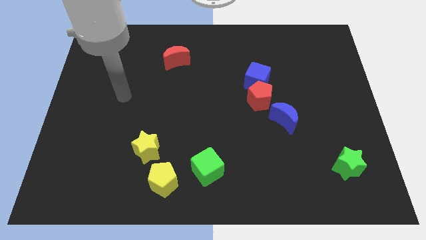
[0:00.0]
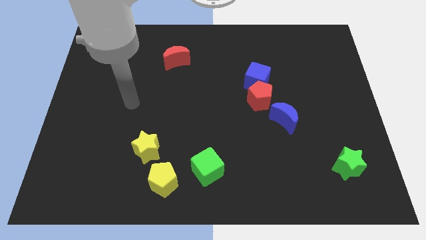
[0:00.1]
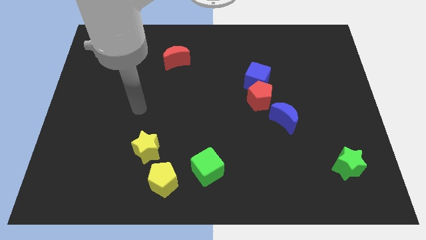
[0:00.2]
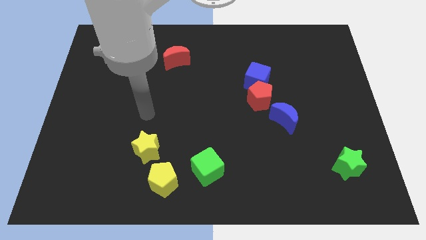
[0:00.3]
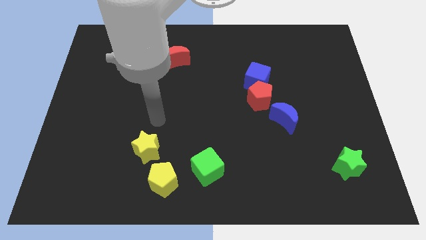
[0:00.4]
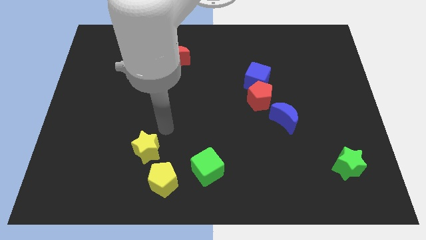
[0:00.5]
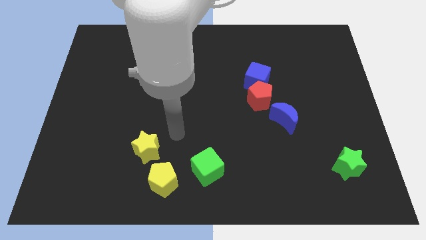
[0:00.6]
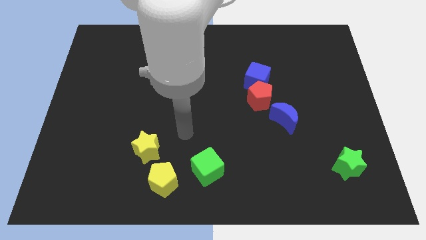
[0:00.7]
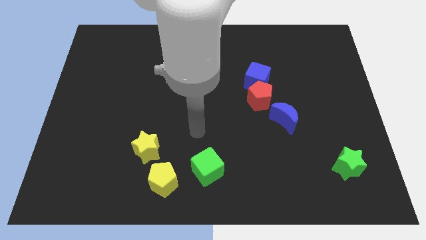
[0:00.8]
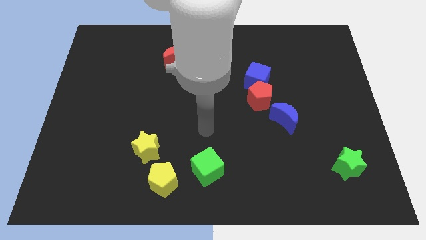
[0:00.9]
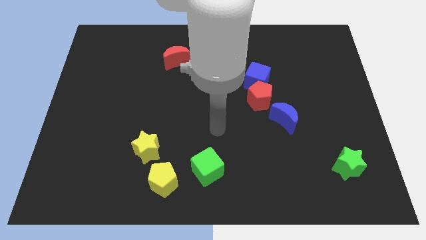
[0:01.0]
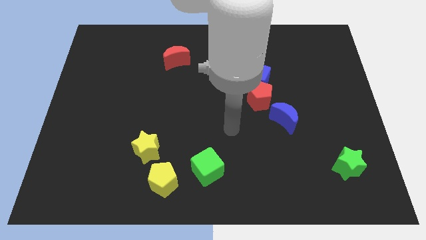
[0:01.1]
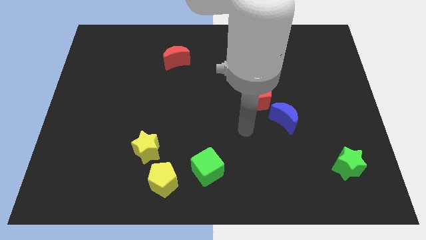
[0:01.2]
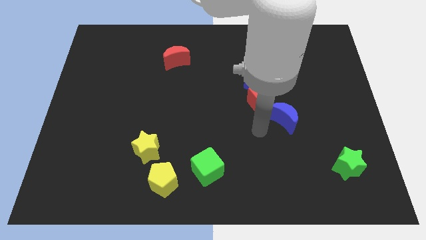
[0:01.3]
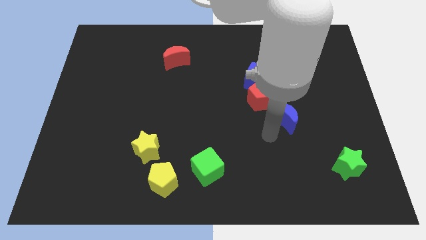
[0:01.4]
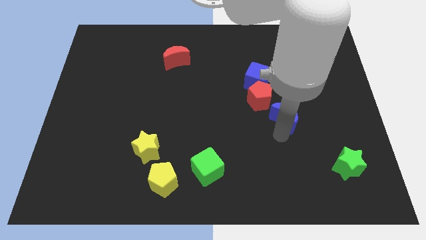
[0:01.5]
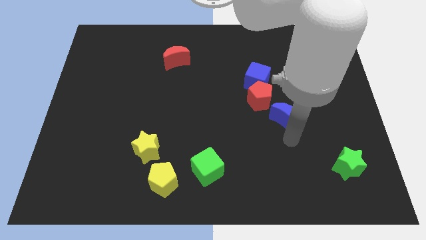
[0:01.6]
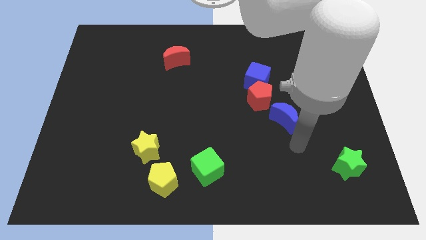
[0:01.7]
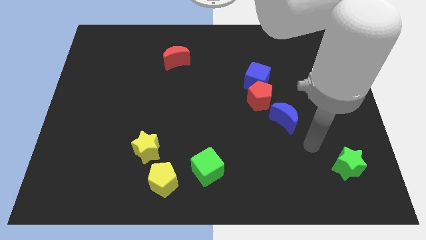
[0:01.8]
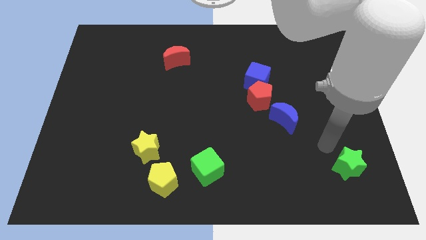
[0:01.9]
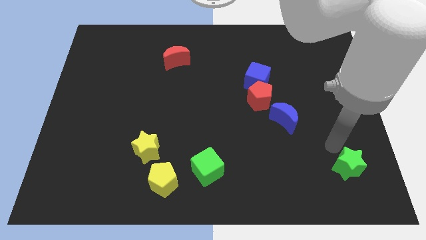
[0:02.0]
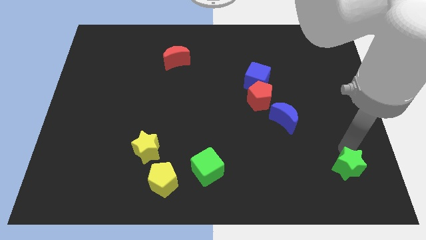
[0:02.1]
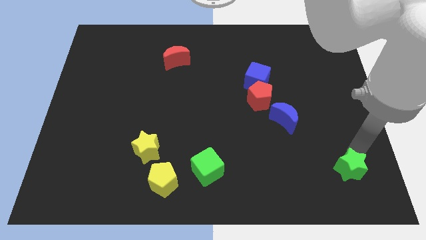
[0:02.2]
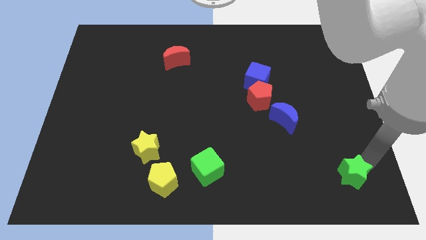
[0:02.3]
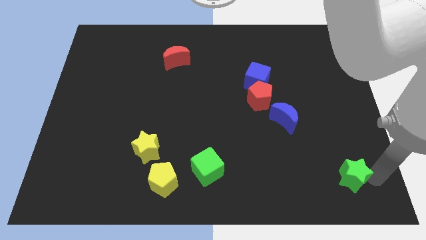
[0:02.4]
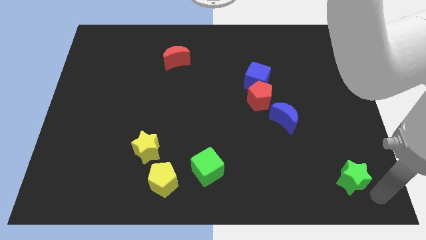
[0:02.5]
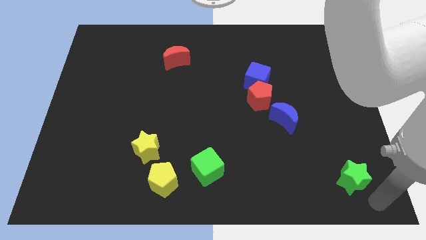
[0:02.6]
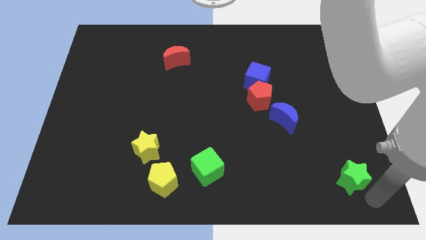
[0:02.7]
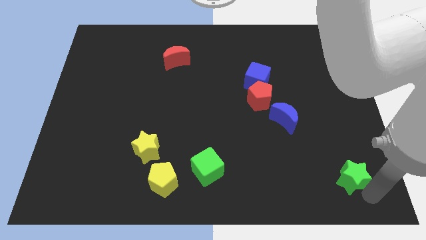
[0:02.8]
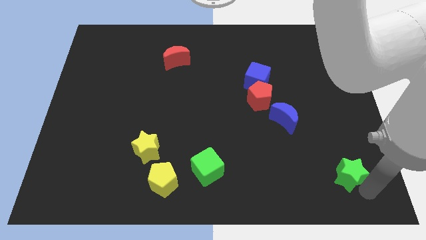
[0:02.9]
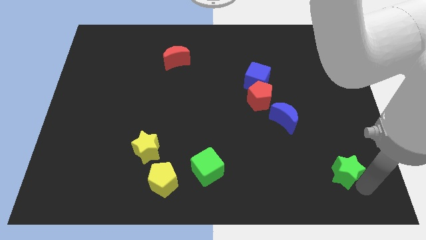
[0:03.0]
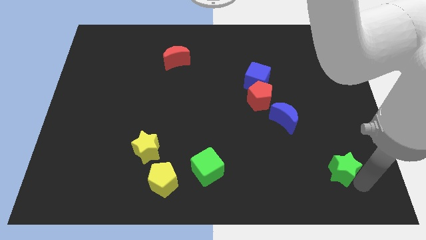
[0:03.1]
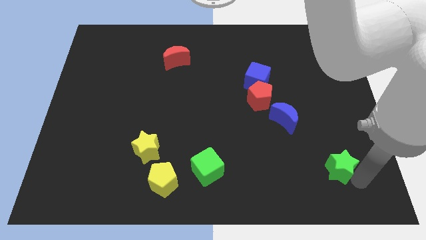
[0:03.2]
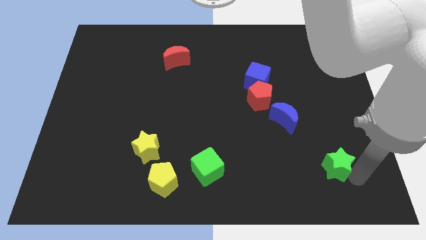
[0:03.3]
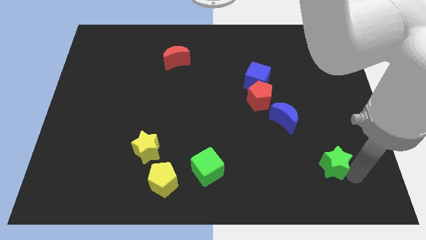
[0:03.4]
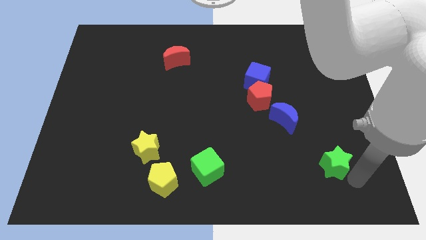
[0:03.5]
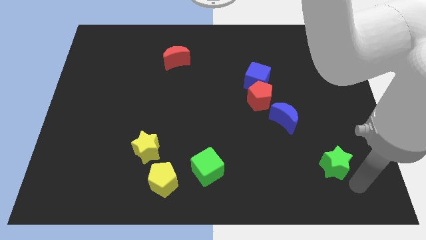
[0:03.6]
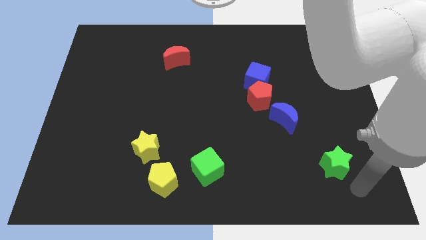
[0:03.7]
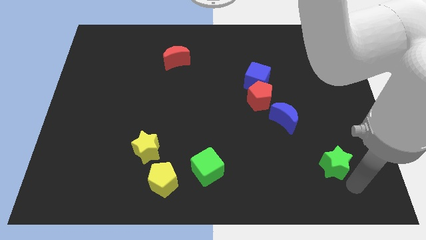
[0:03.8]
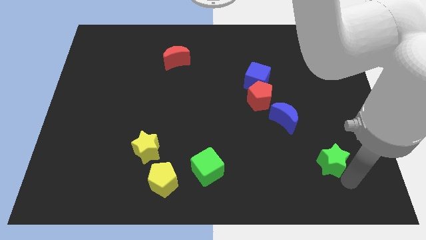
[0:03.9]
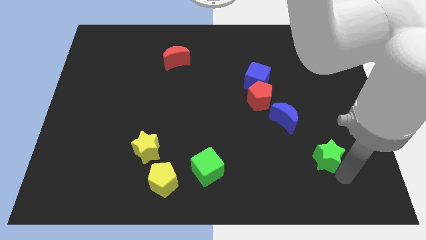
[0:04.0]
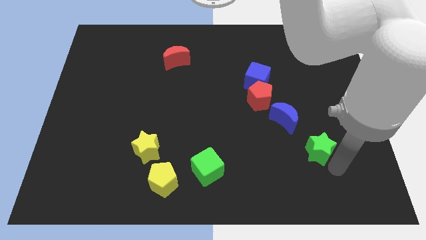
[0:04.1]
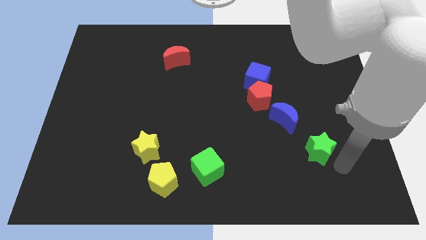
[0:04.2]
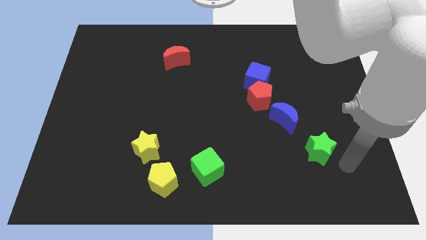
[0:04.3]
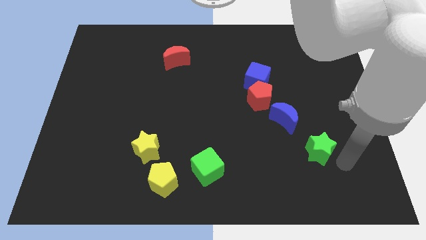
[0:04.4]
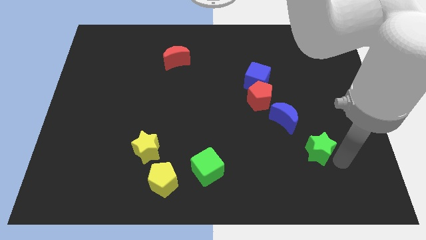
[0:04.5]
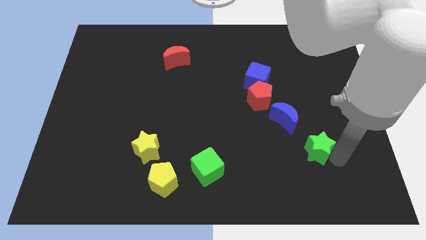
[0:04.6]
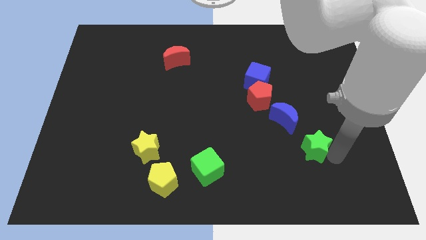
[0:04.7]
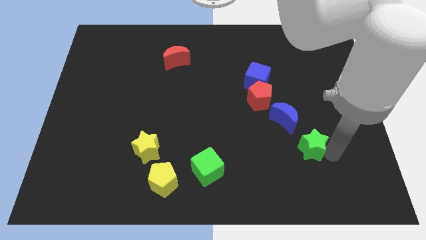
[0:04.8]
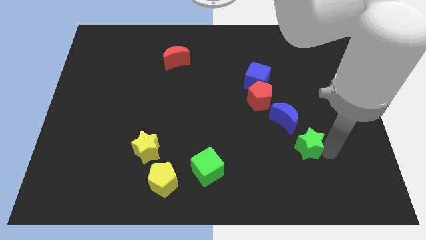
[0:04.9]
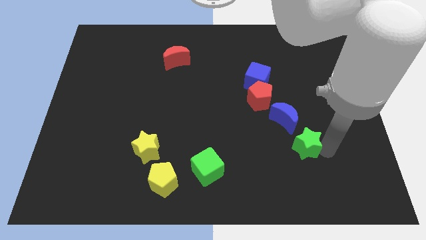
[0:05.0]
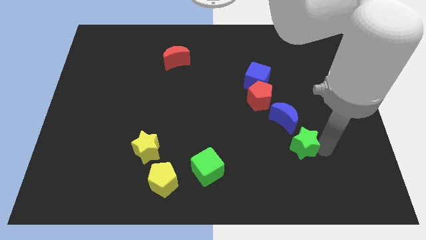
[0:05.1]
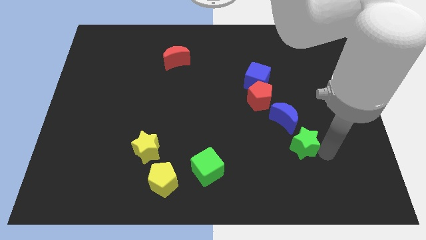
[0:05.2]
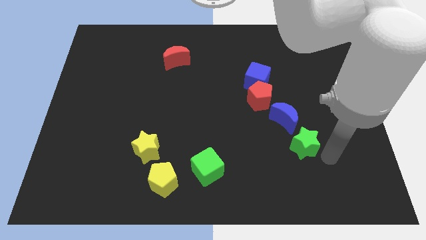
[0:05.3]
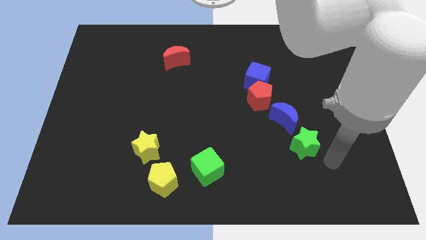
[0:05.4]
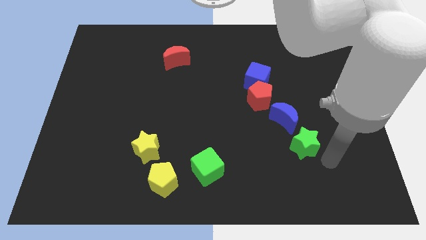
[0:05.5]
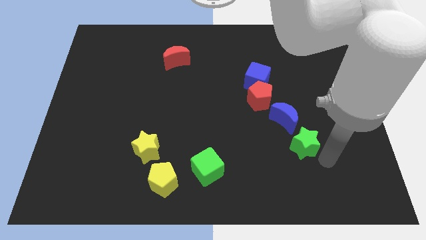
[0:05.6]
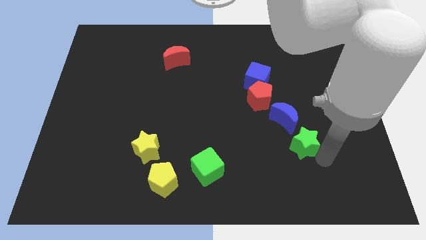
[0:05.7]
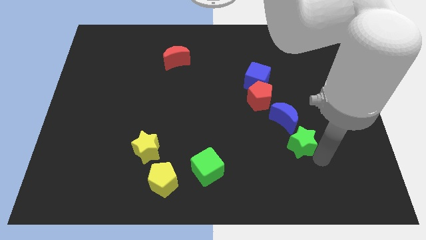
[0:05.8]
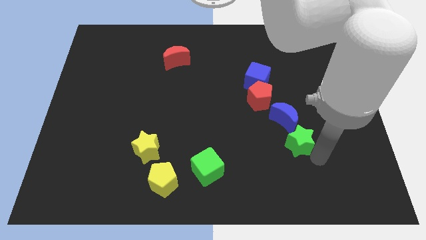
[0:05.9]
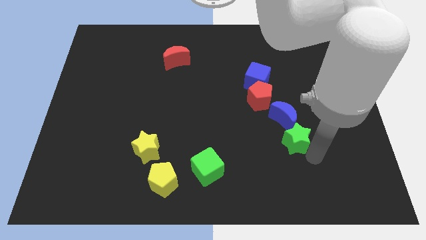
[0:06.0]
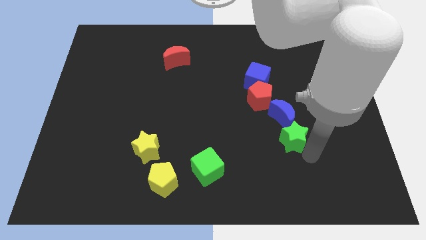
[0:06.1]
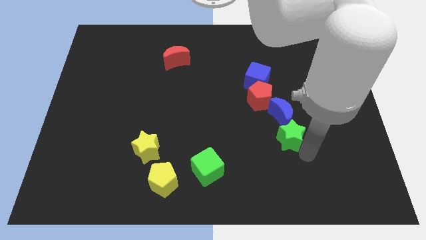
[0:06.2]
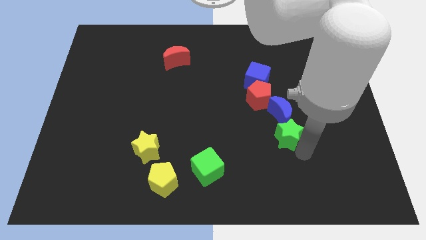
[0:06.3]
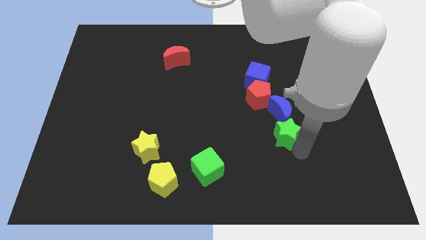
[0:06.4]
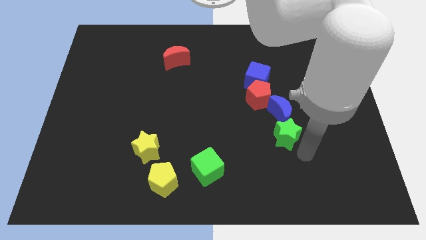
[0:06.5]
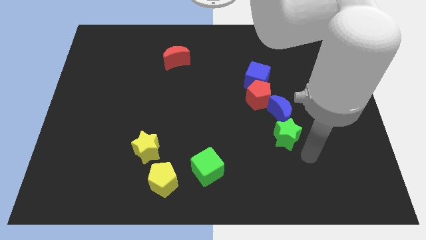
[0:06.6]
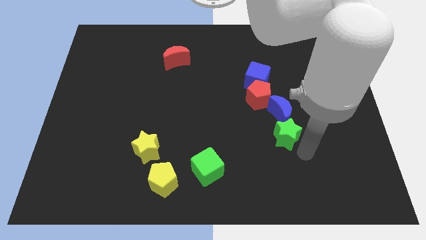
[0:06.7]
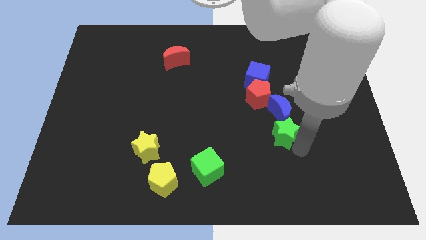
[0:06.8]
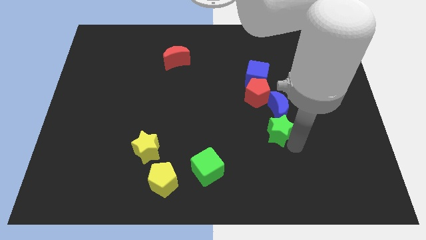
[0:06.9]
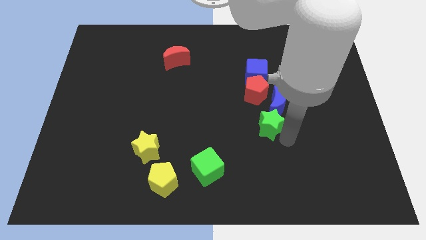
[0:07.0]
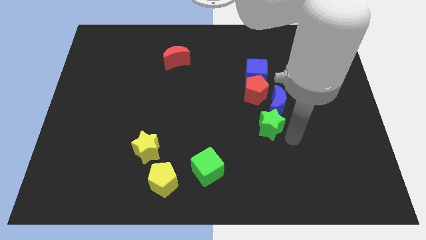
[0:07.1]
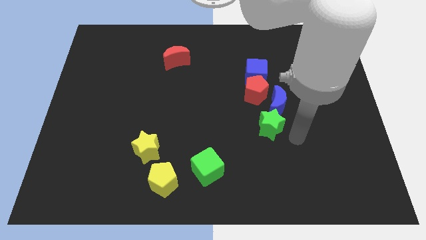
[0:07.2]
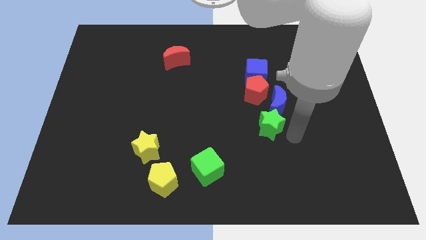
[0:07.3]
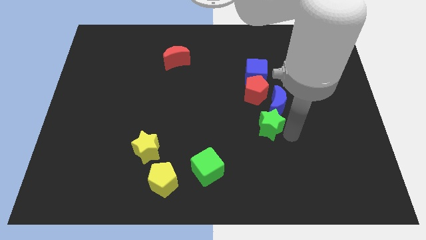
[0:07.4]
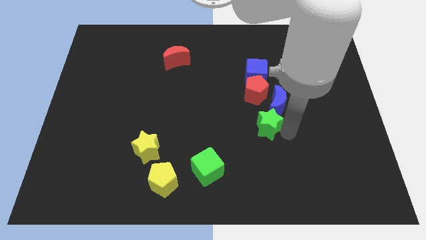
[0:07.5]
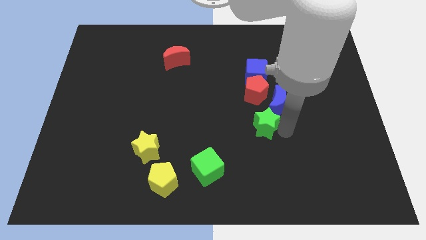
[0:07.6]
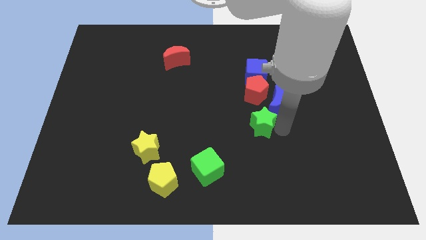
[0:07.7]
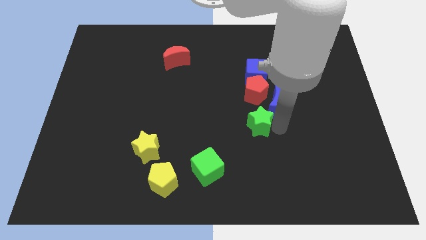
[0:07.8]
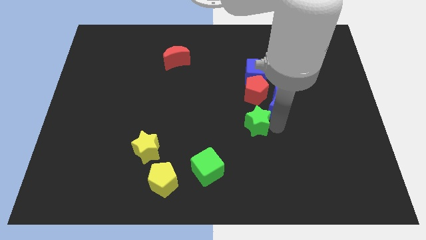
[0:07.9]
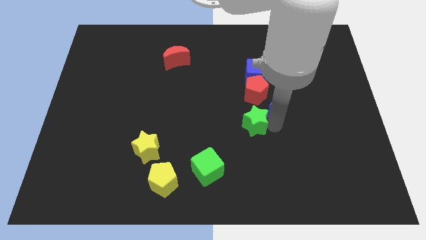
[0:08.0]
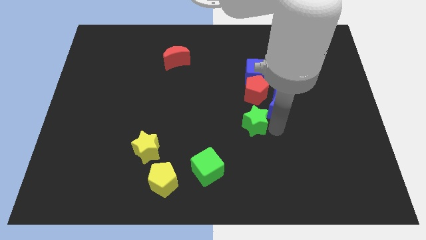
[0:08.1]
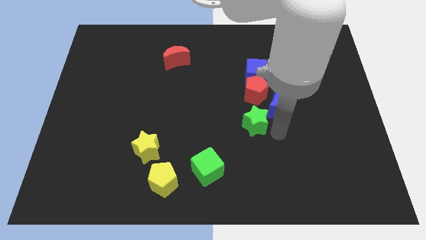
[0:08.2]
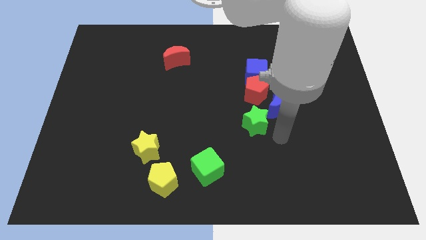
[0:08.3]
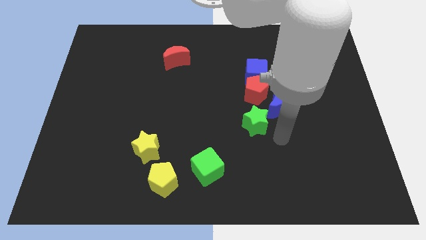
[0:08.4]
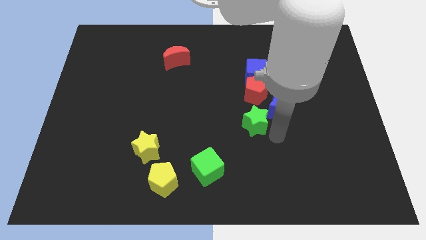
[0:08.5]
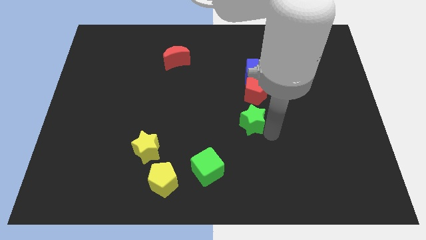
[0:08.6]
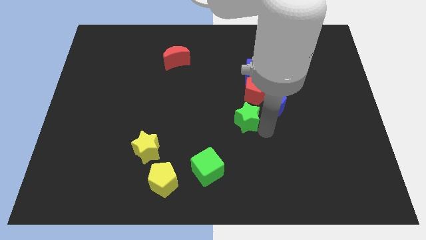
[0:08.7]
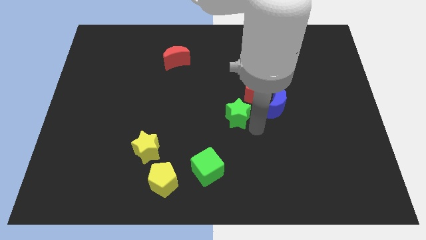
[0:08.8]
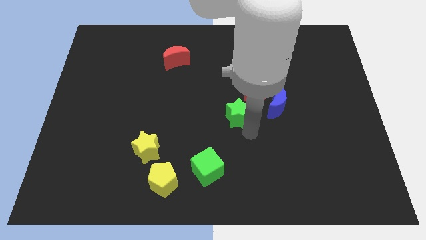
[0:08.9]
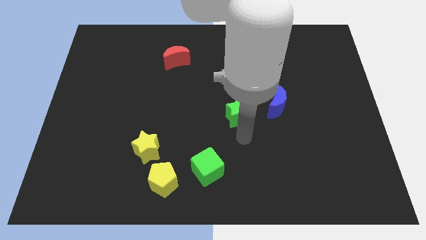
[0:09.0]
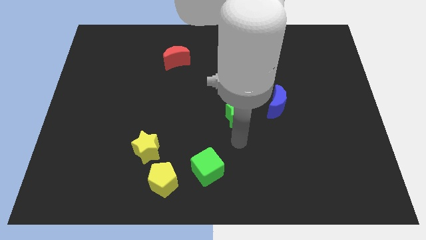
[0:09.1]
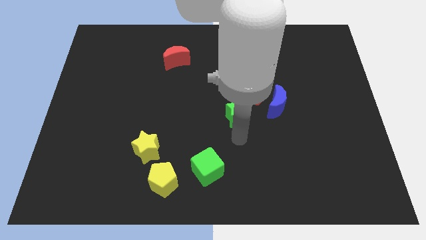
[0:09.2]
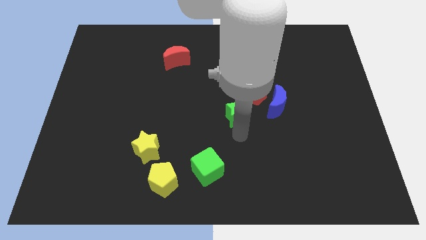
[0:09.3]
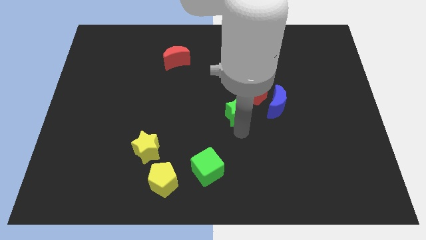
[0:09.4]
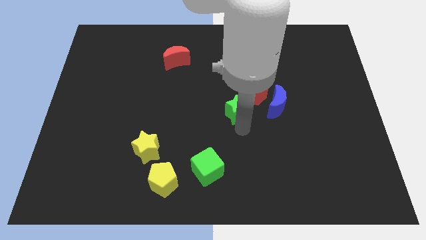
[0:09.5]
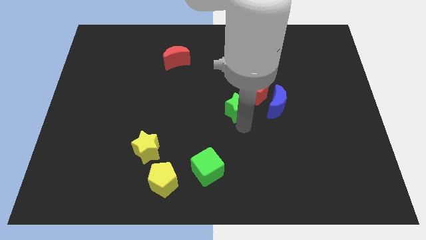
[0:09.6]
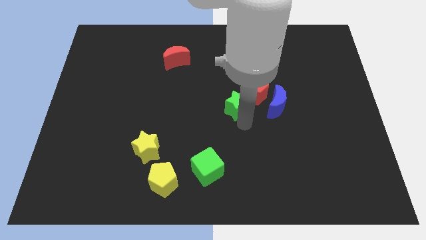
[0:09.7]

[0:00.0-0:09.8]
slide the green star to the bottom left of the blue cube
